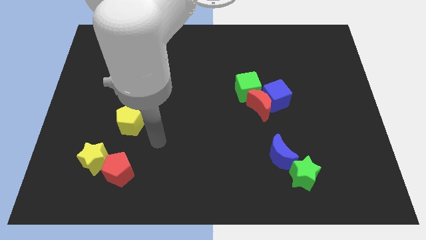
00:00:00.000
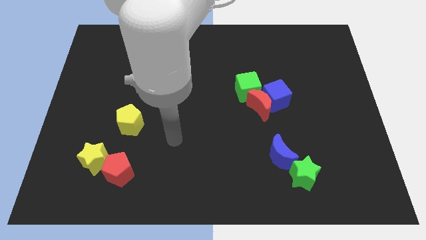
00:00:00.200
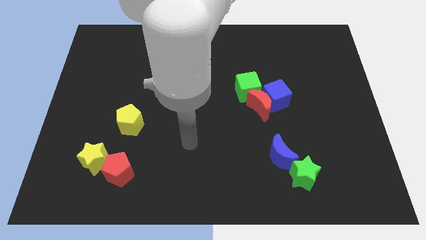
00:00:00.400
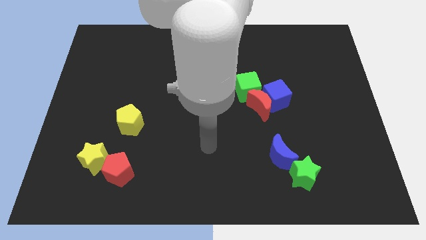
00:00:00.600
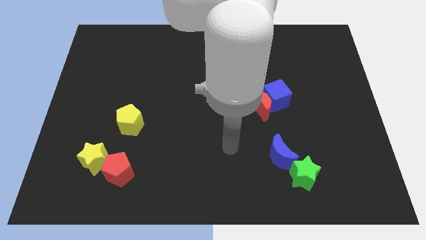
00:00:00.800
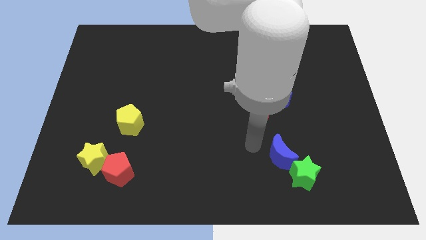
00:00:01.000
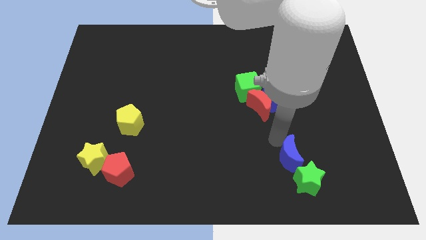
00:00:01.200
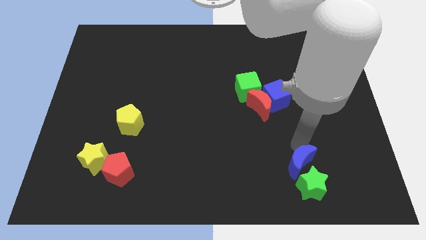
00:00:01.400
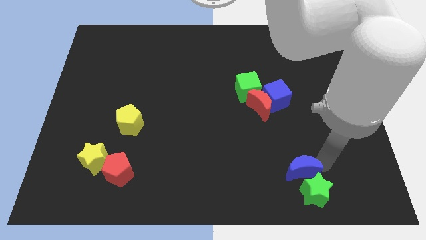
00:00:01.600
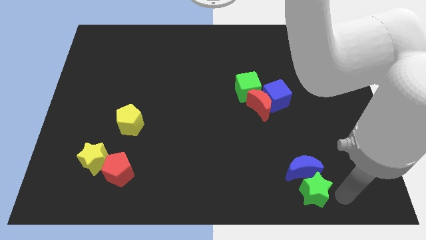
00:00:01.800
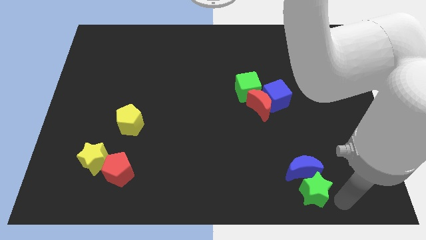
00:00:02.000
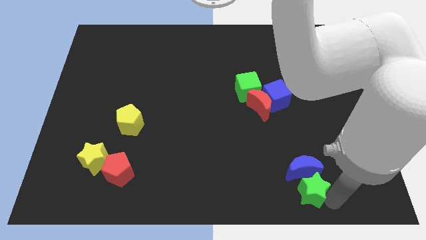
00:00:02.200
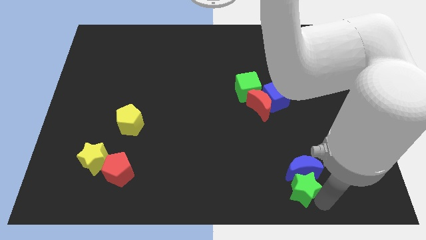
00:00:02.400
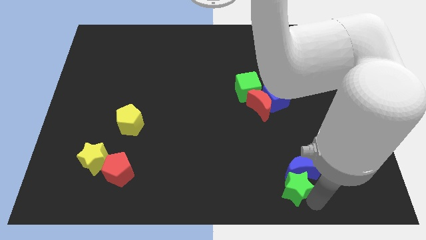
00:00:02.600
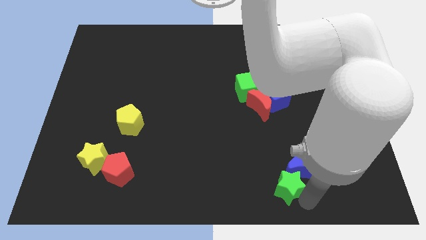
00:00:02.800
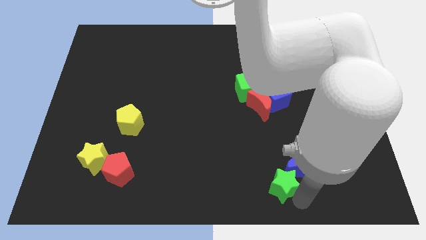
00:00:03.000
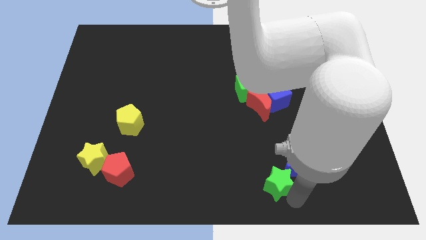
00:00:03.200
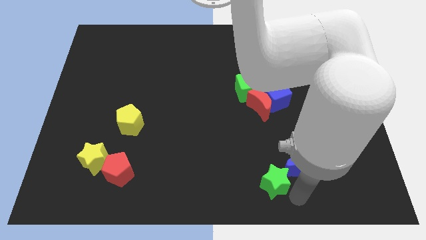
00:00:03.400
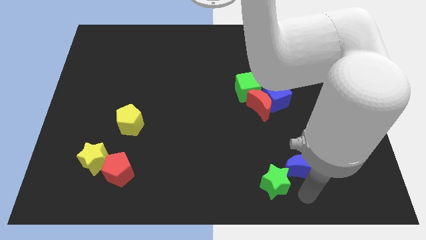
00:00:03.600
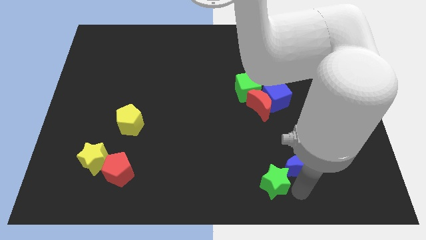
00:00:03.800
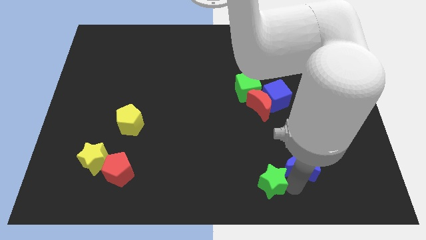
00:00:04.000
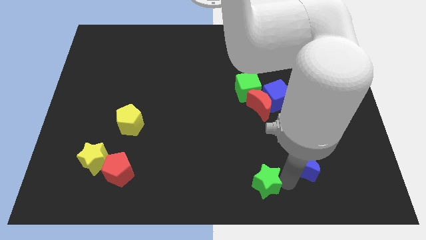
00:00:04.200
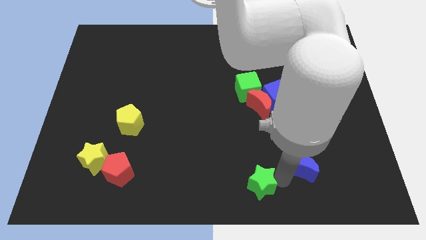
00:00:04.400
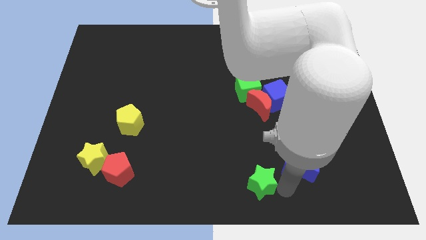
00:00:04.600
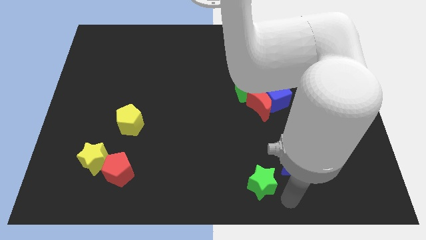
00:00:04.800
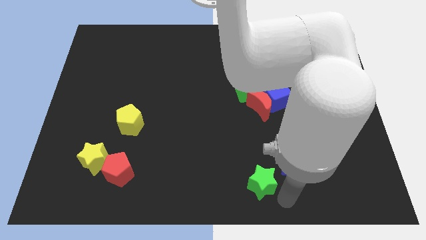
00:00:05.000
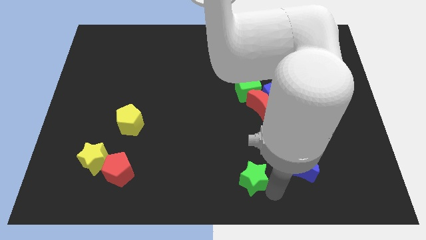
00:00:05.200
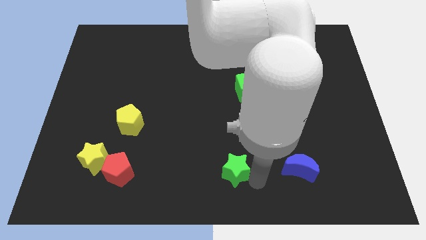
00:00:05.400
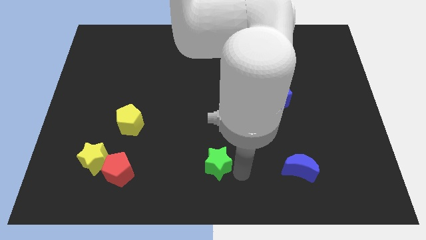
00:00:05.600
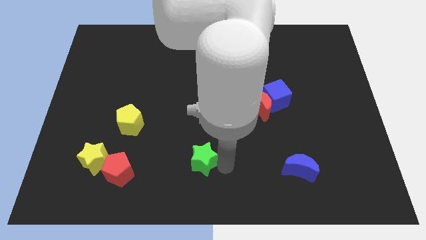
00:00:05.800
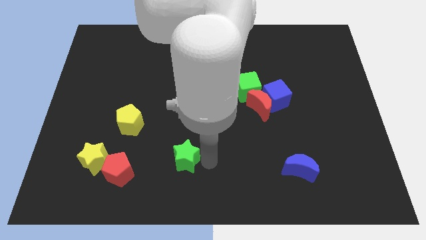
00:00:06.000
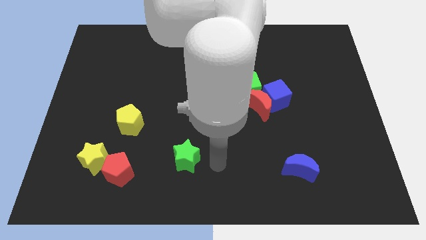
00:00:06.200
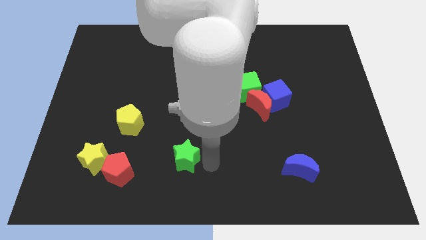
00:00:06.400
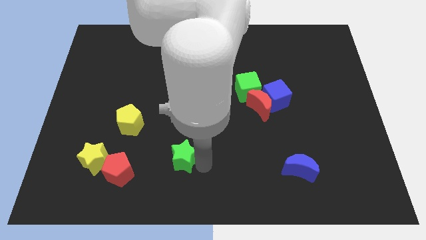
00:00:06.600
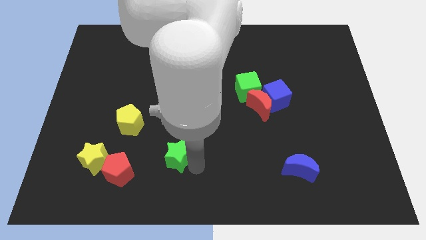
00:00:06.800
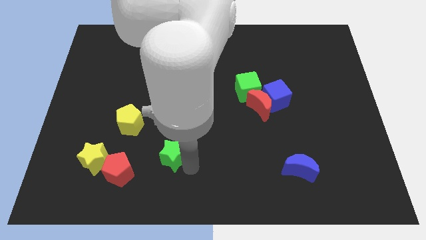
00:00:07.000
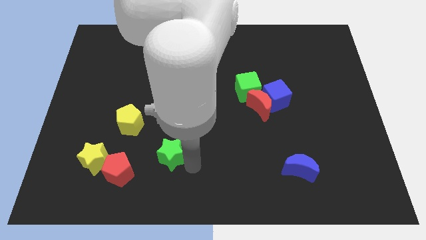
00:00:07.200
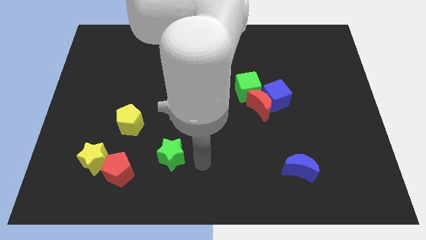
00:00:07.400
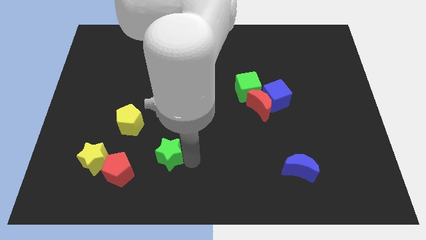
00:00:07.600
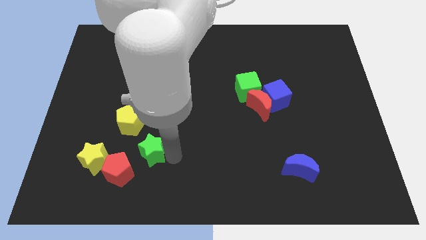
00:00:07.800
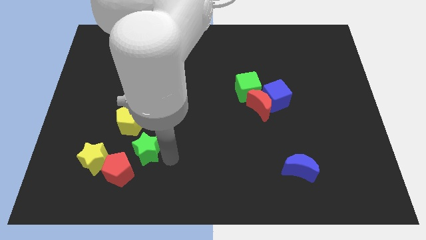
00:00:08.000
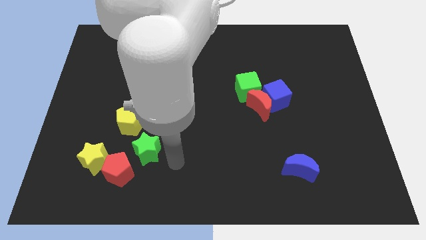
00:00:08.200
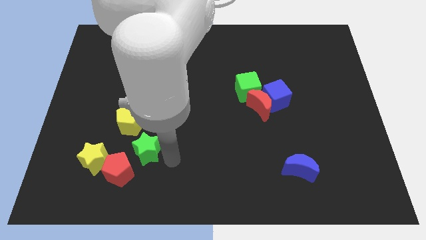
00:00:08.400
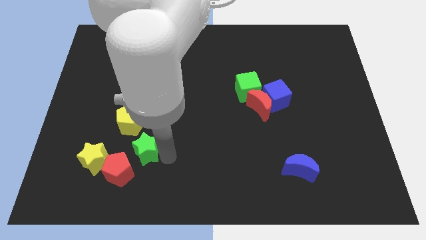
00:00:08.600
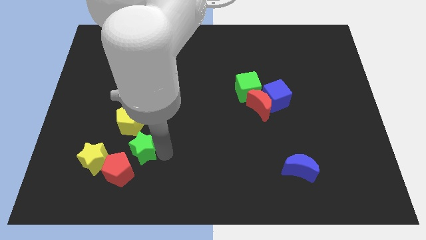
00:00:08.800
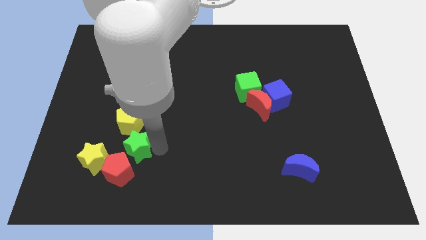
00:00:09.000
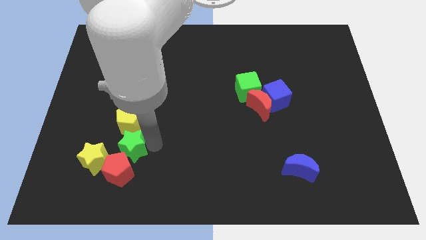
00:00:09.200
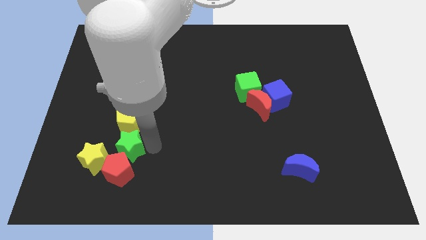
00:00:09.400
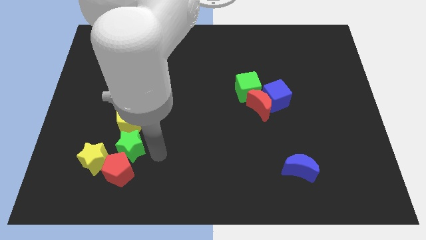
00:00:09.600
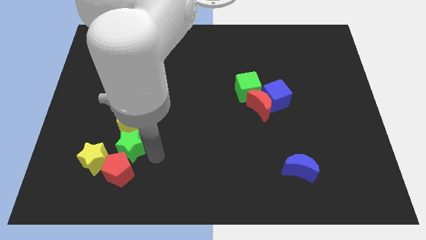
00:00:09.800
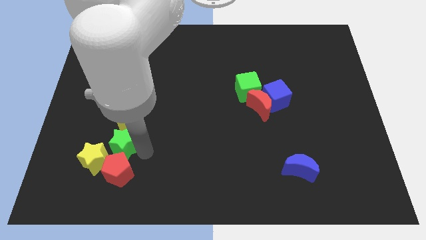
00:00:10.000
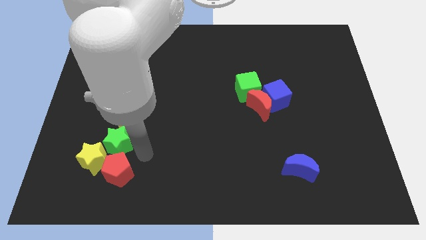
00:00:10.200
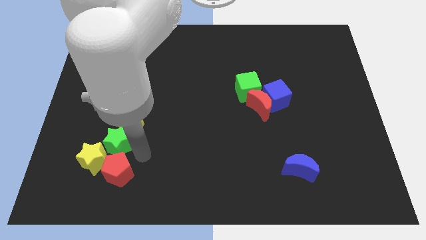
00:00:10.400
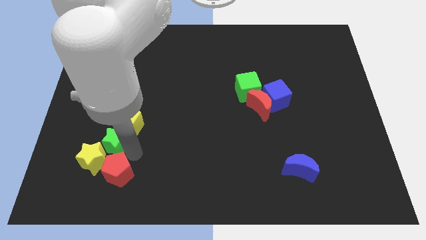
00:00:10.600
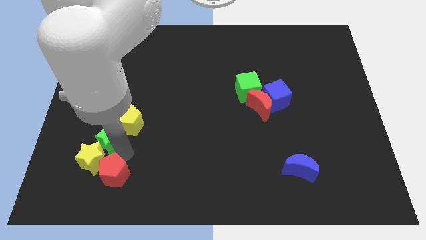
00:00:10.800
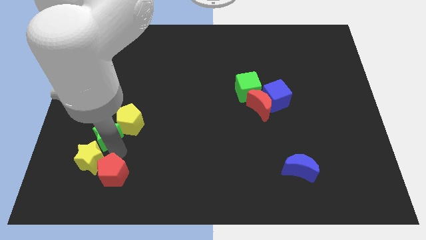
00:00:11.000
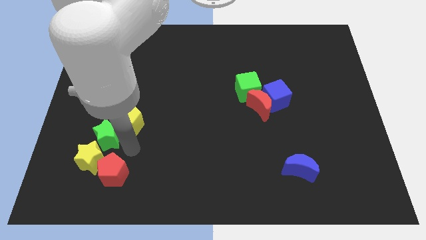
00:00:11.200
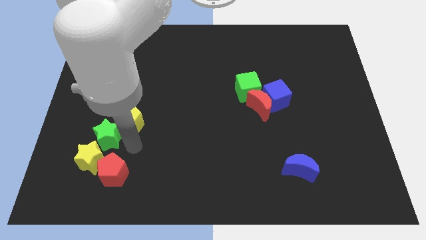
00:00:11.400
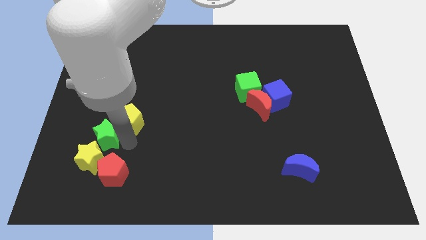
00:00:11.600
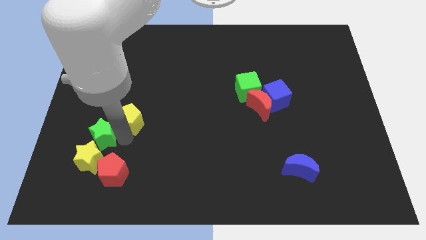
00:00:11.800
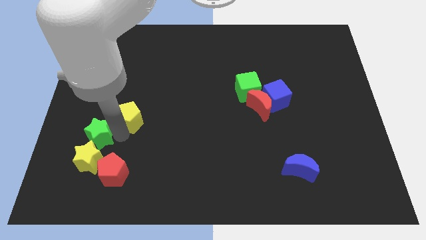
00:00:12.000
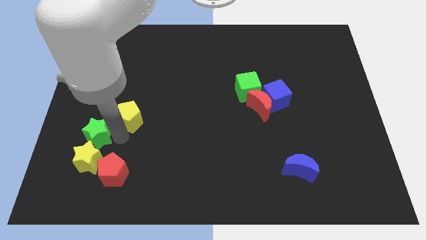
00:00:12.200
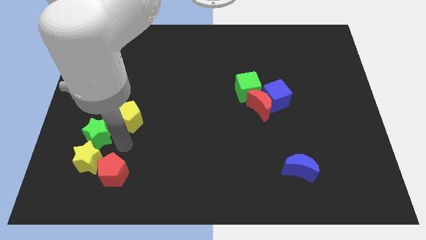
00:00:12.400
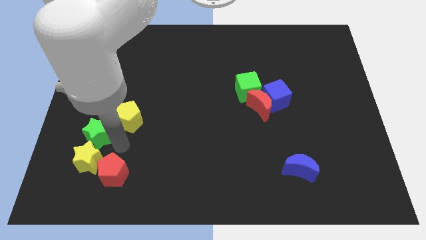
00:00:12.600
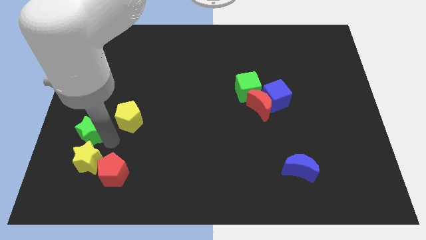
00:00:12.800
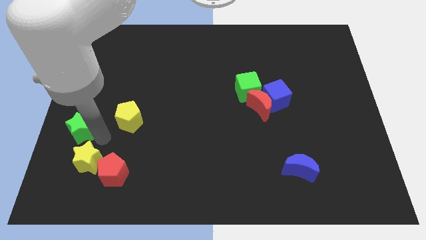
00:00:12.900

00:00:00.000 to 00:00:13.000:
push the green star to the left side of the board

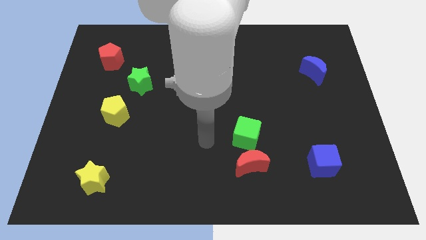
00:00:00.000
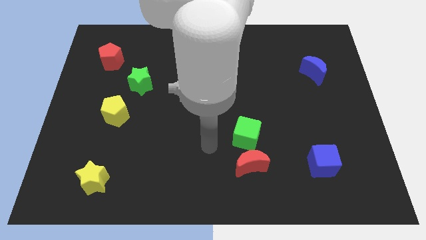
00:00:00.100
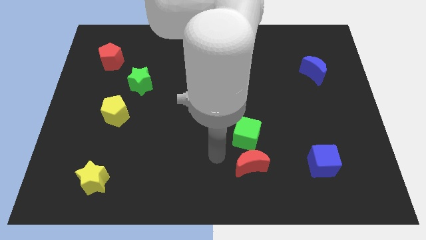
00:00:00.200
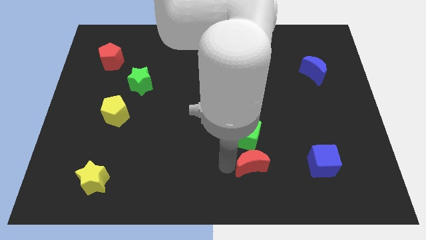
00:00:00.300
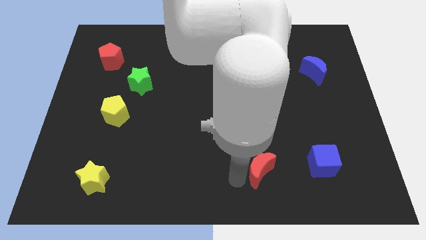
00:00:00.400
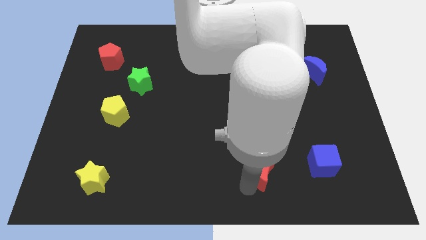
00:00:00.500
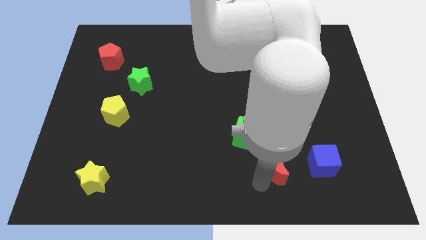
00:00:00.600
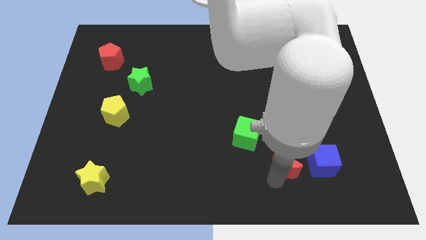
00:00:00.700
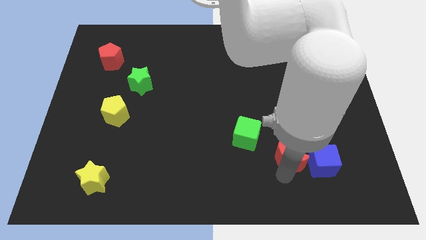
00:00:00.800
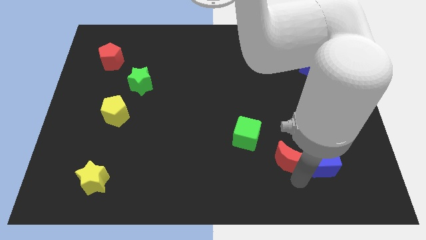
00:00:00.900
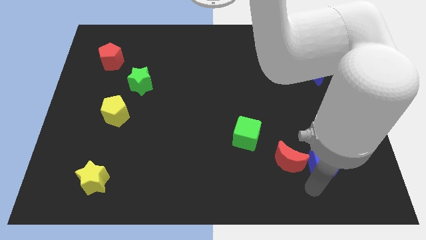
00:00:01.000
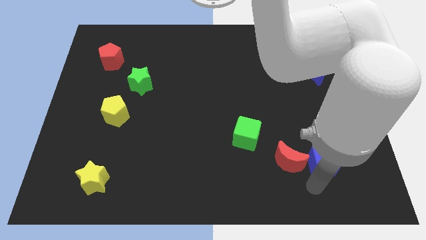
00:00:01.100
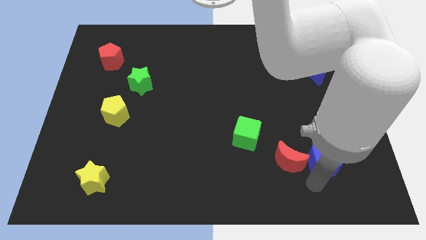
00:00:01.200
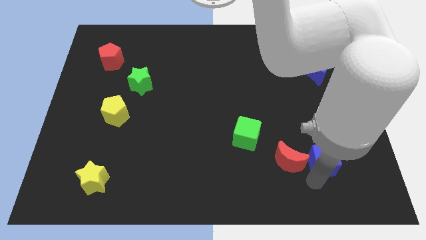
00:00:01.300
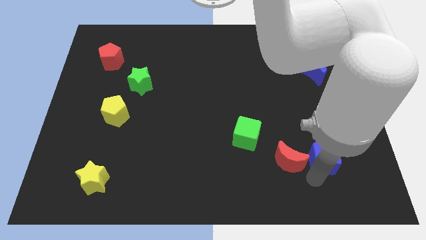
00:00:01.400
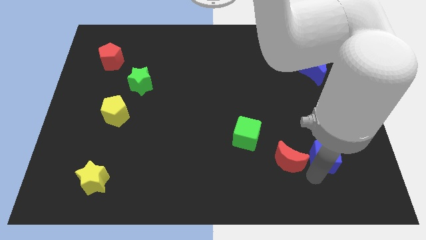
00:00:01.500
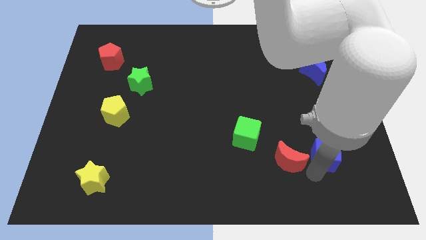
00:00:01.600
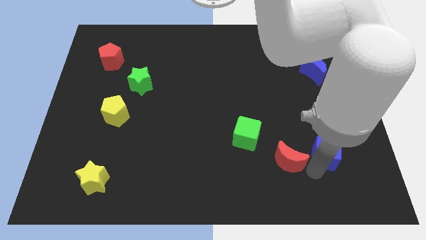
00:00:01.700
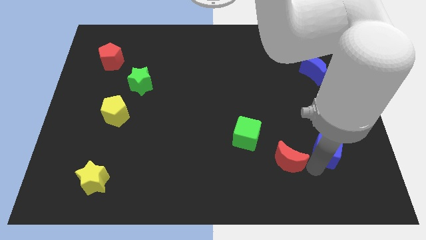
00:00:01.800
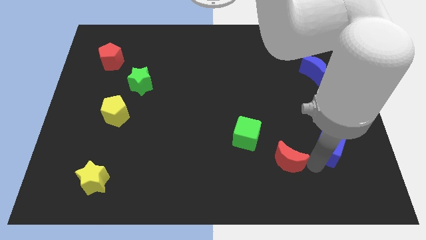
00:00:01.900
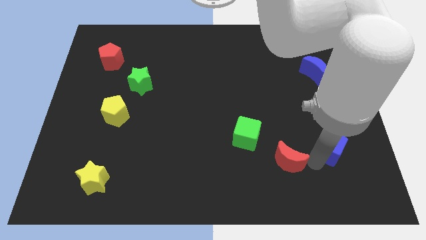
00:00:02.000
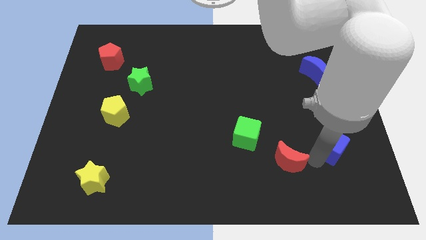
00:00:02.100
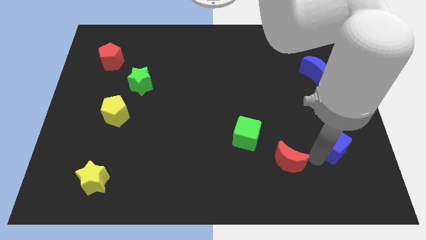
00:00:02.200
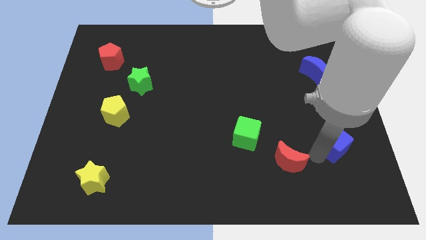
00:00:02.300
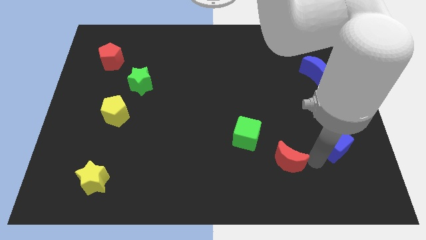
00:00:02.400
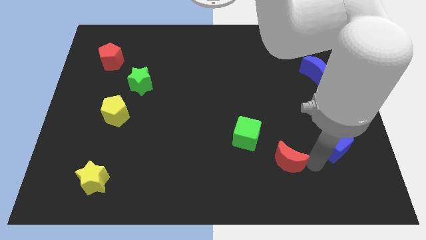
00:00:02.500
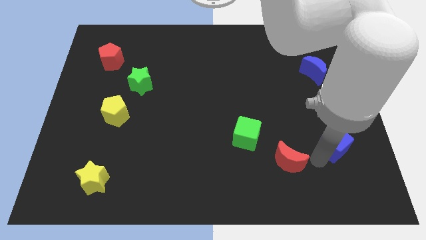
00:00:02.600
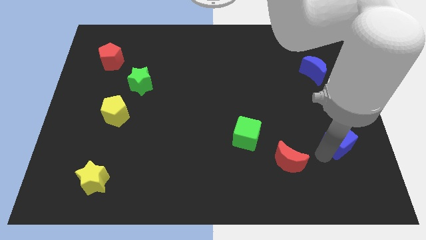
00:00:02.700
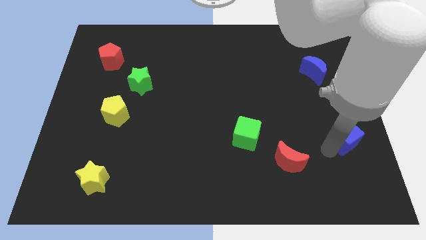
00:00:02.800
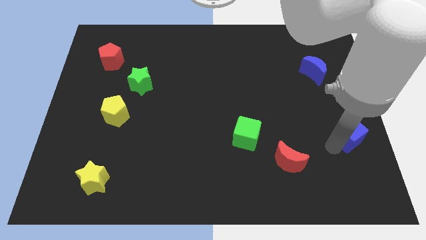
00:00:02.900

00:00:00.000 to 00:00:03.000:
move the blue cube to the right side
